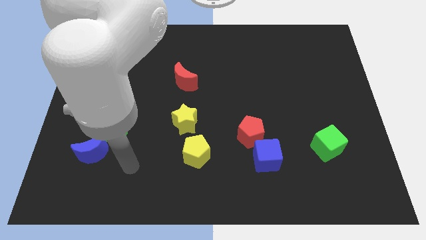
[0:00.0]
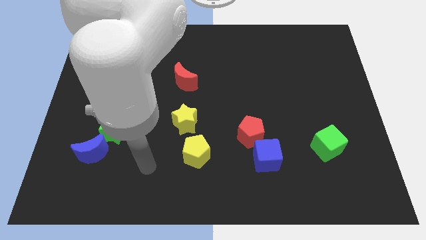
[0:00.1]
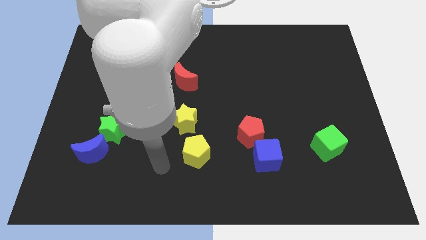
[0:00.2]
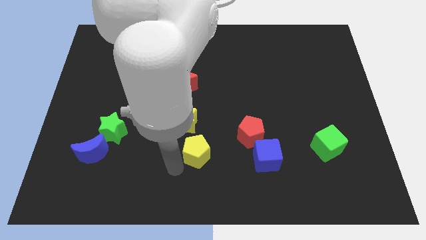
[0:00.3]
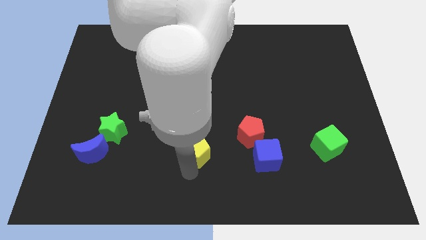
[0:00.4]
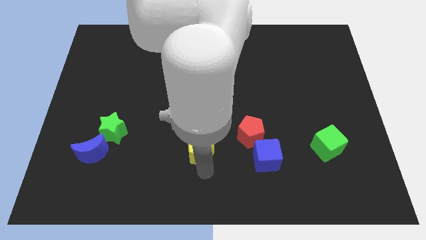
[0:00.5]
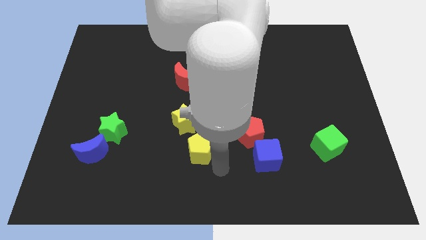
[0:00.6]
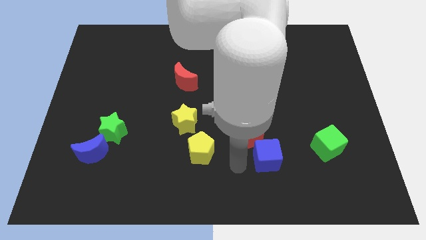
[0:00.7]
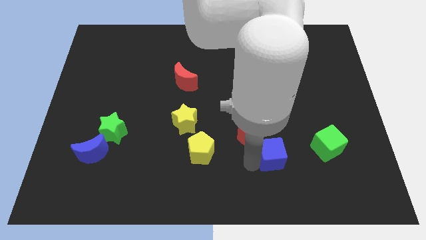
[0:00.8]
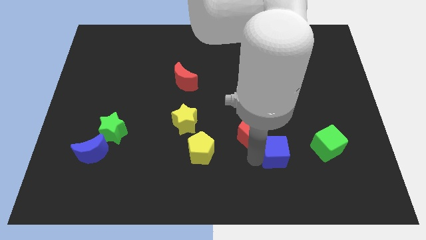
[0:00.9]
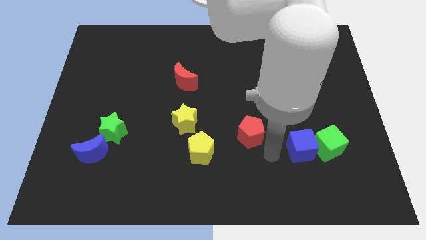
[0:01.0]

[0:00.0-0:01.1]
move the red pentagon away from the blue cube

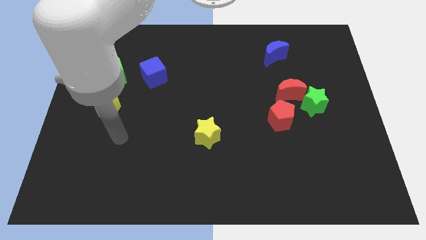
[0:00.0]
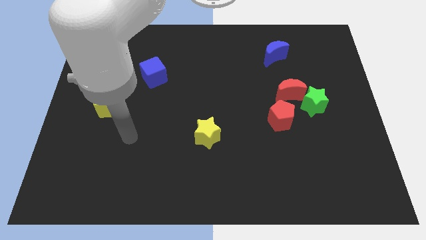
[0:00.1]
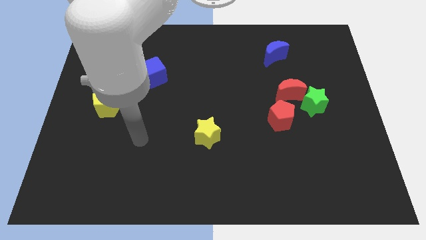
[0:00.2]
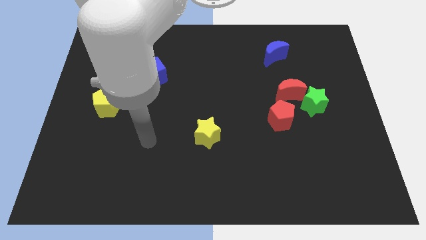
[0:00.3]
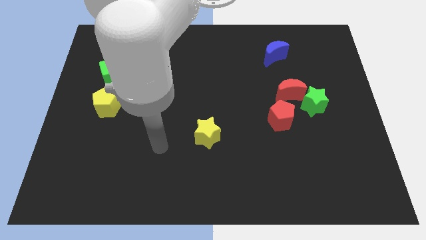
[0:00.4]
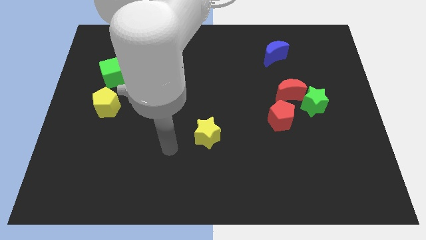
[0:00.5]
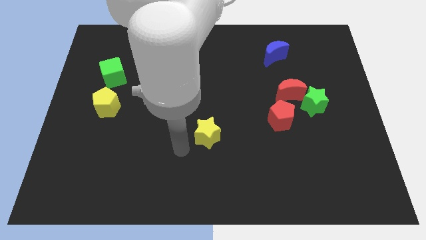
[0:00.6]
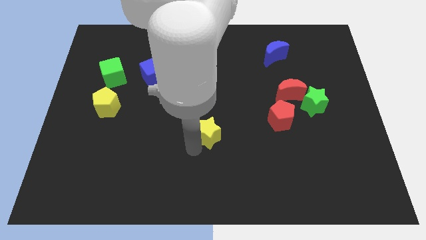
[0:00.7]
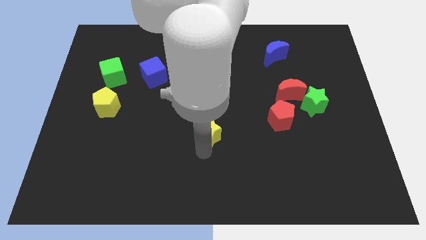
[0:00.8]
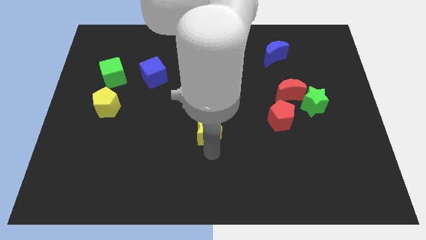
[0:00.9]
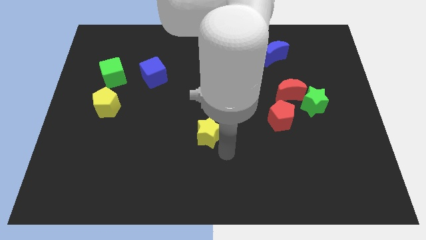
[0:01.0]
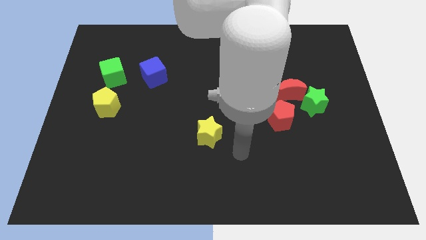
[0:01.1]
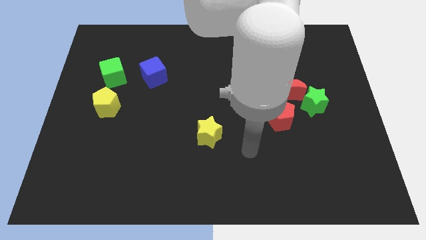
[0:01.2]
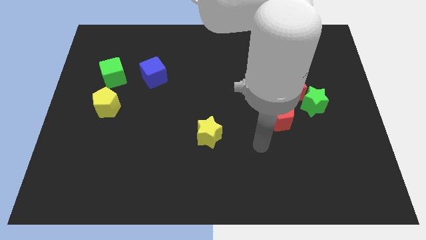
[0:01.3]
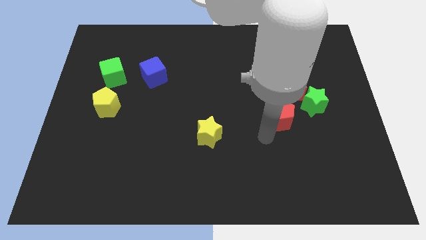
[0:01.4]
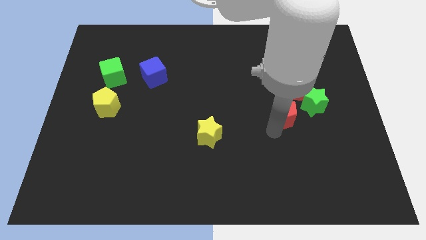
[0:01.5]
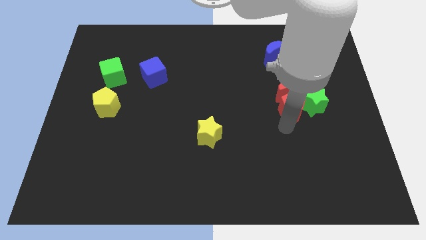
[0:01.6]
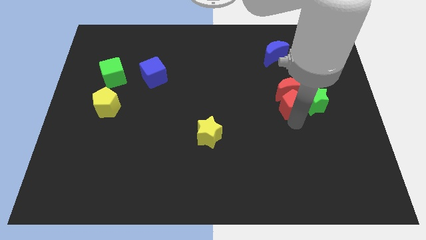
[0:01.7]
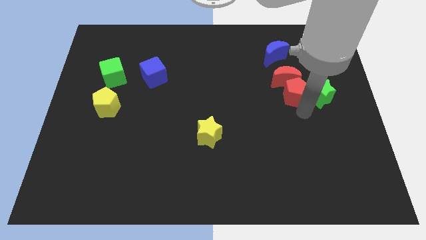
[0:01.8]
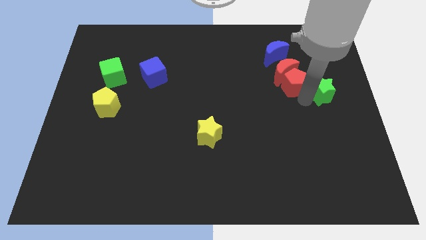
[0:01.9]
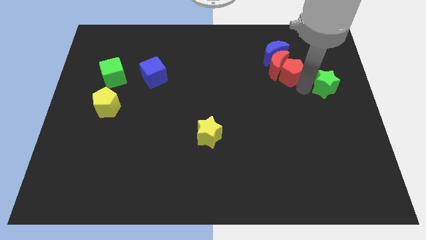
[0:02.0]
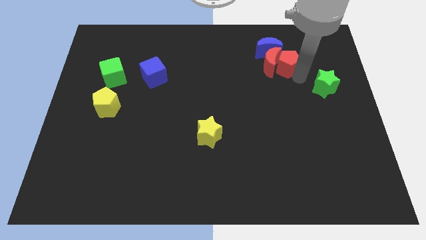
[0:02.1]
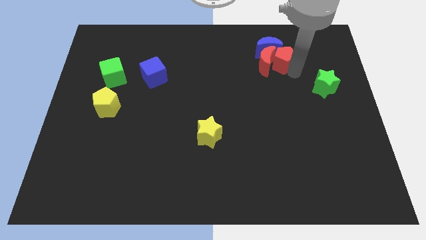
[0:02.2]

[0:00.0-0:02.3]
move the red moon away from the green star and red pentagon

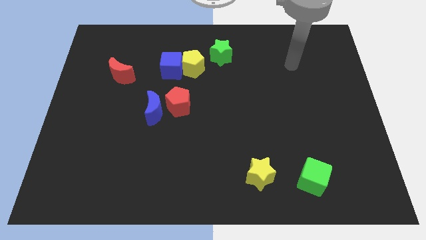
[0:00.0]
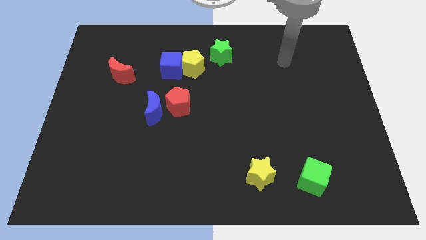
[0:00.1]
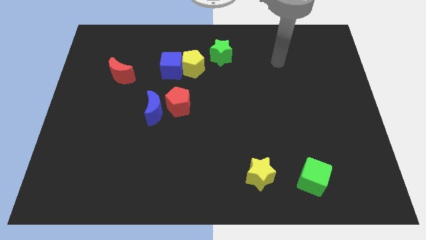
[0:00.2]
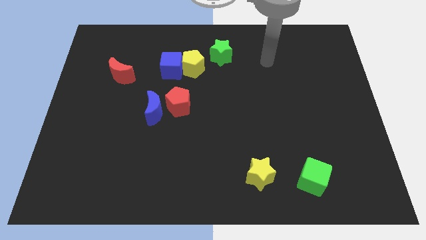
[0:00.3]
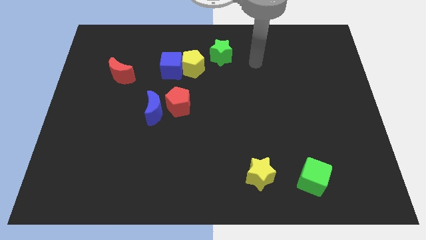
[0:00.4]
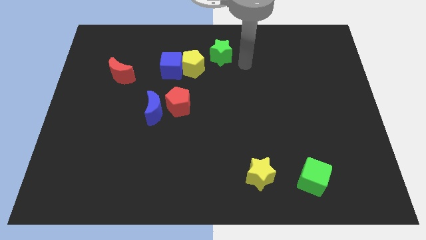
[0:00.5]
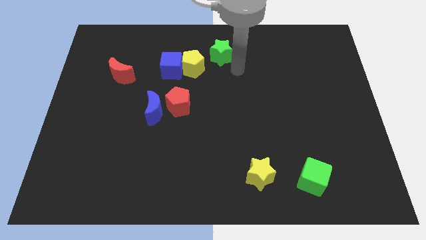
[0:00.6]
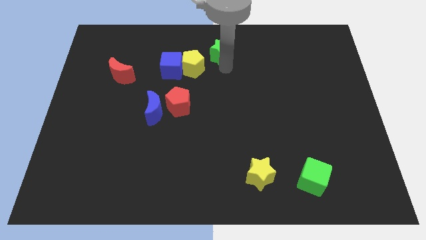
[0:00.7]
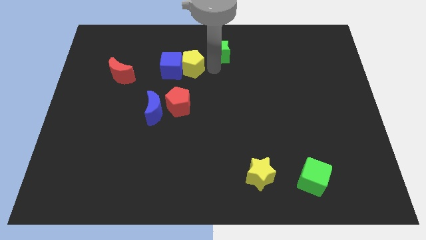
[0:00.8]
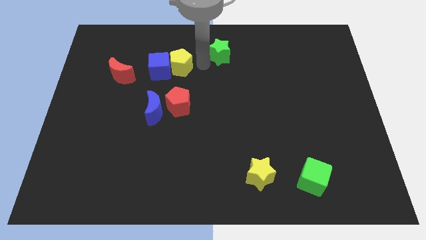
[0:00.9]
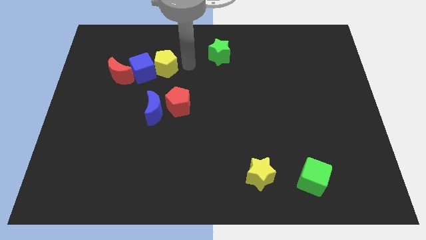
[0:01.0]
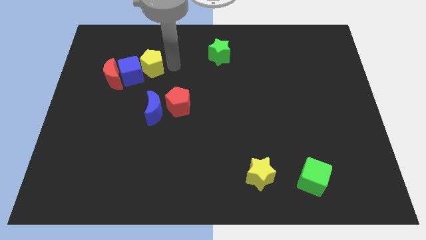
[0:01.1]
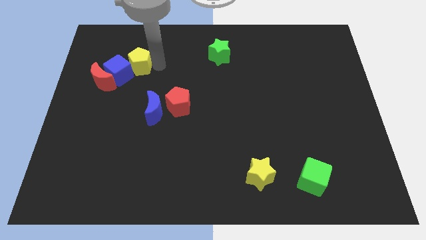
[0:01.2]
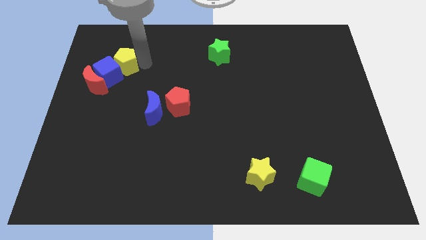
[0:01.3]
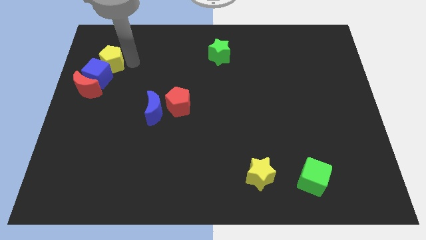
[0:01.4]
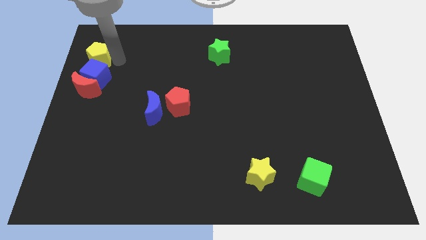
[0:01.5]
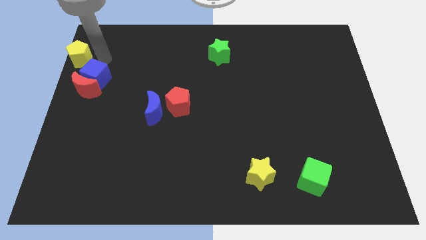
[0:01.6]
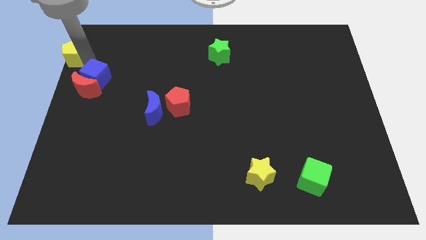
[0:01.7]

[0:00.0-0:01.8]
move the blue cube away from the yellow pentagon

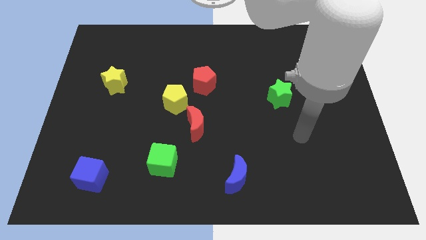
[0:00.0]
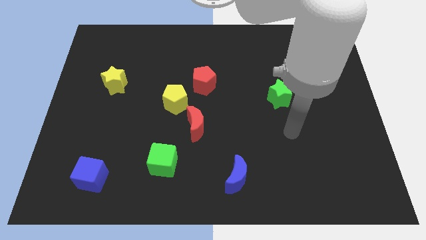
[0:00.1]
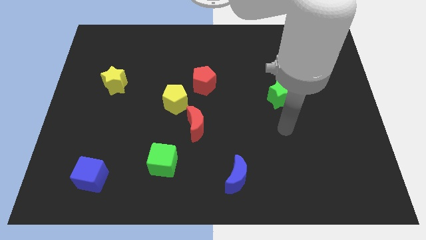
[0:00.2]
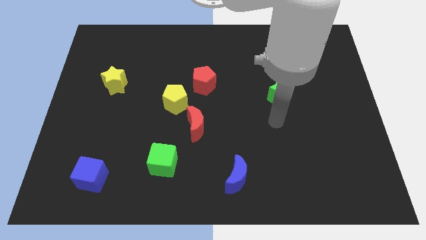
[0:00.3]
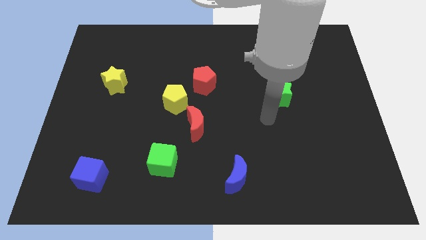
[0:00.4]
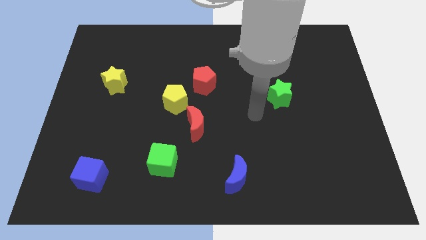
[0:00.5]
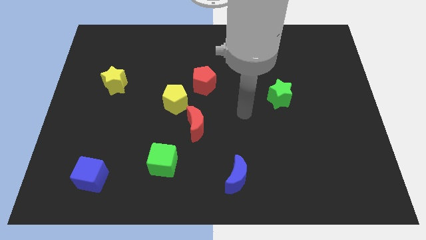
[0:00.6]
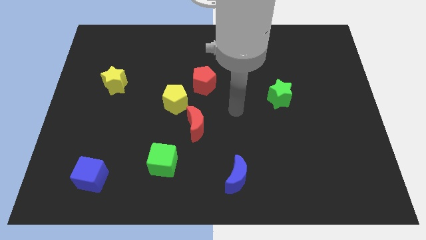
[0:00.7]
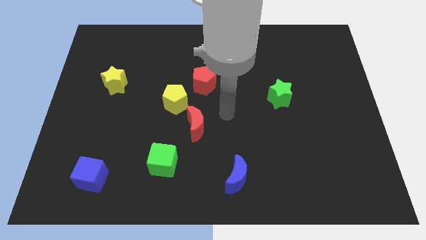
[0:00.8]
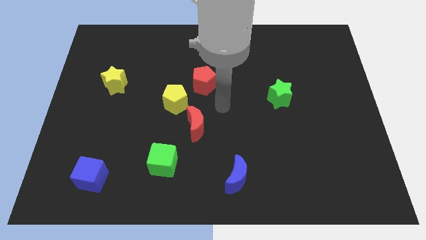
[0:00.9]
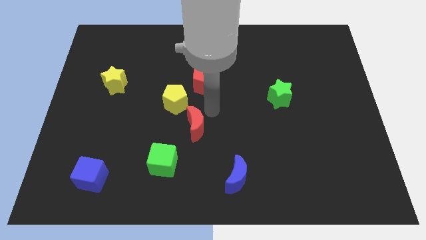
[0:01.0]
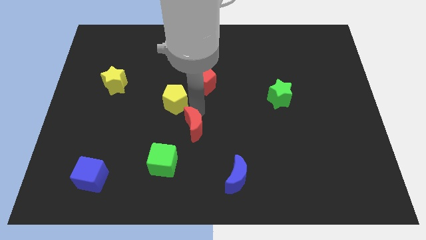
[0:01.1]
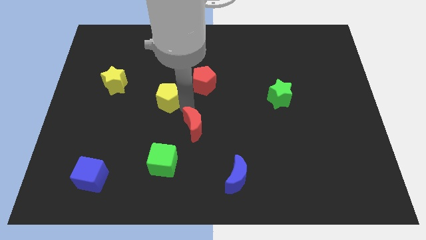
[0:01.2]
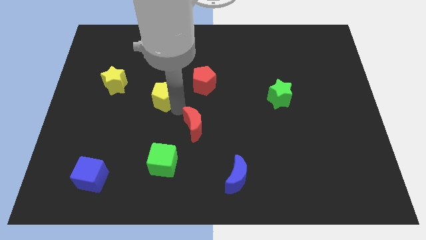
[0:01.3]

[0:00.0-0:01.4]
pull the red moon apart from the yellow pentagon

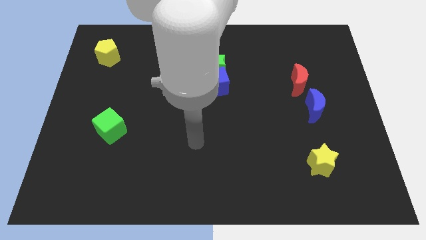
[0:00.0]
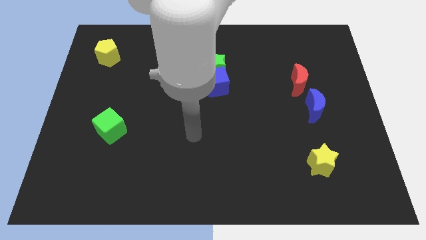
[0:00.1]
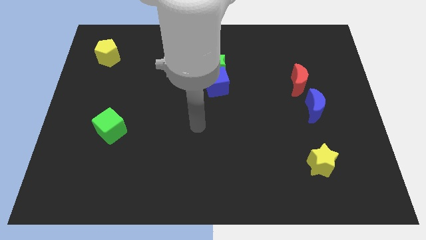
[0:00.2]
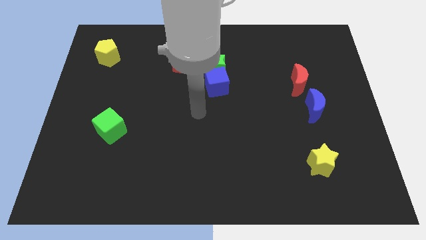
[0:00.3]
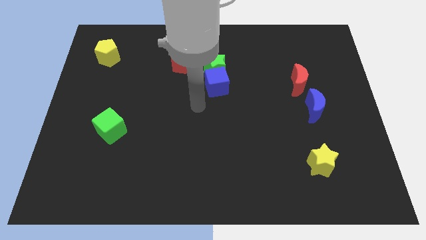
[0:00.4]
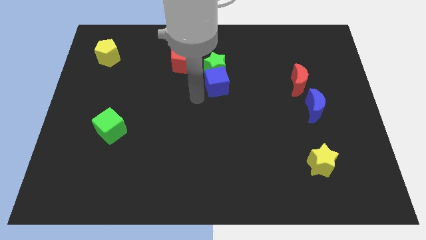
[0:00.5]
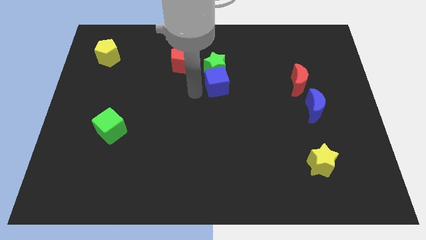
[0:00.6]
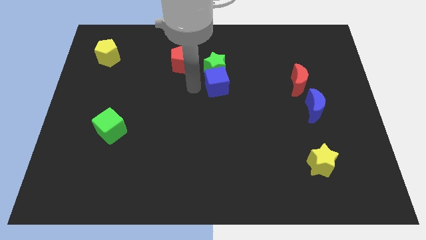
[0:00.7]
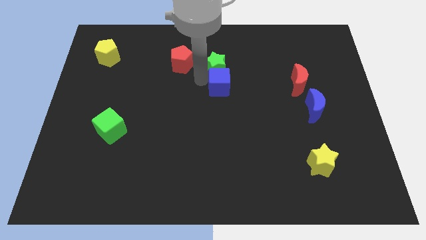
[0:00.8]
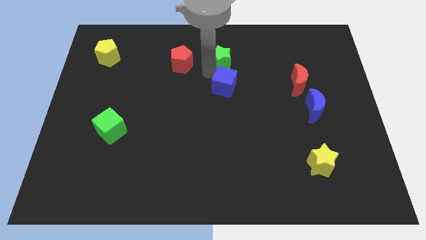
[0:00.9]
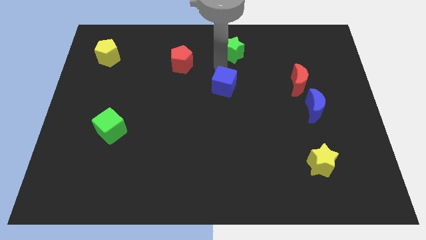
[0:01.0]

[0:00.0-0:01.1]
move the blue cube away from the green star

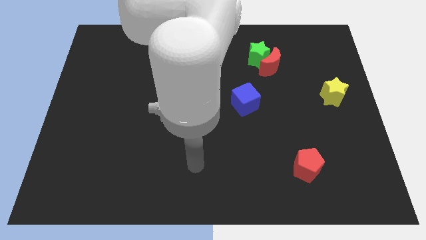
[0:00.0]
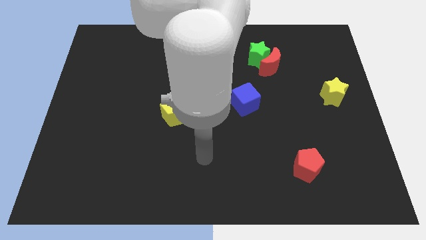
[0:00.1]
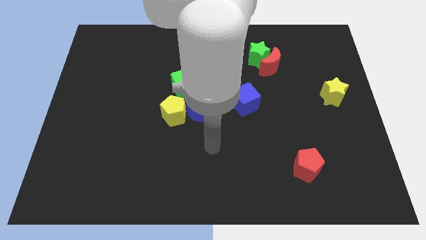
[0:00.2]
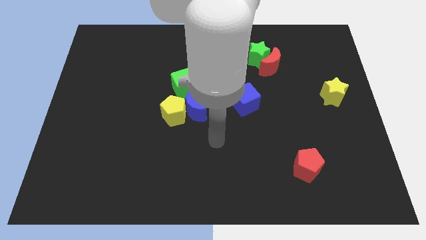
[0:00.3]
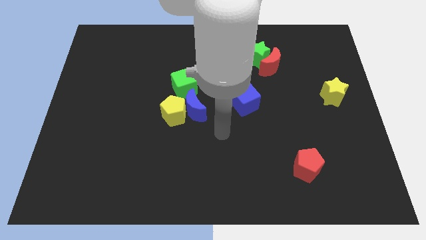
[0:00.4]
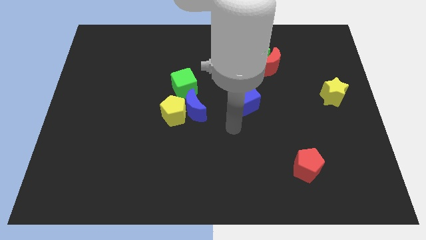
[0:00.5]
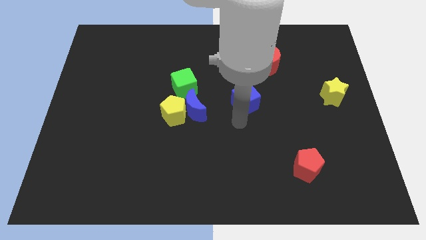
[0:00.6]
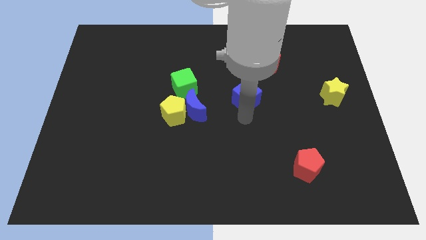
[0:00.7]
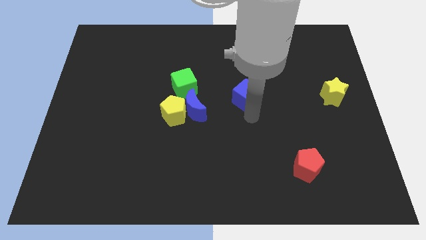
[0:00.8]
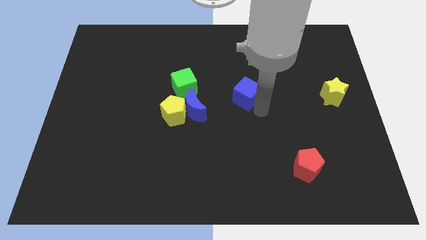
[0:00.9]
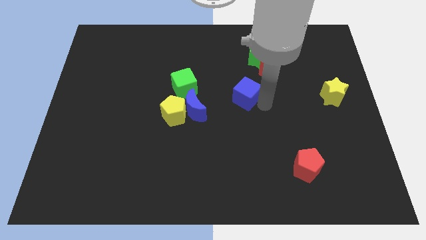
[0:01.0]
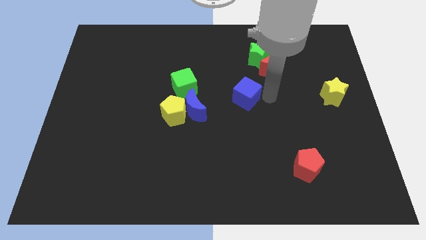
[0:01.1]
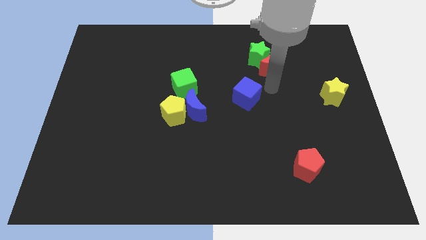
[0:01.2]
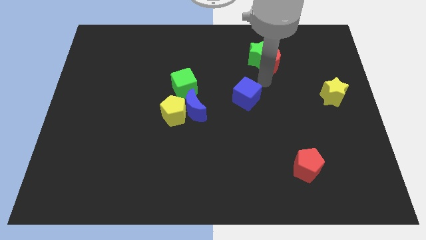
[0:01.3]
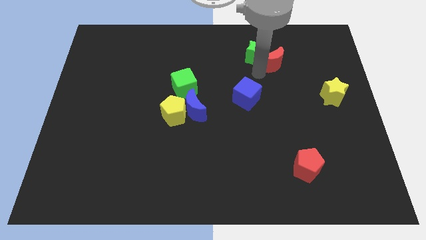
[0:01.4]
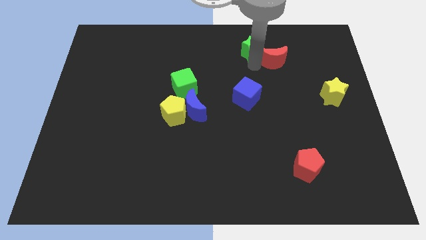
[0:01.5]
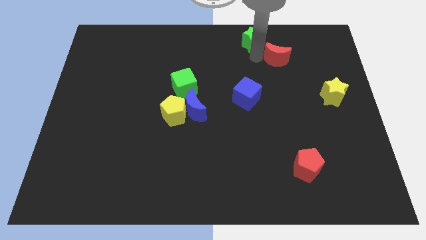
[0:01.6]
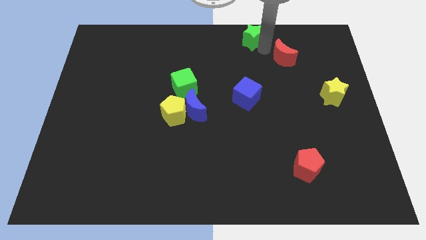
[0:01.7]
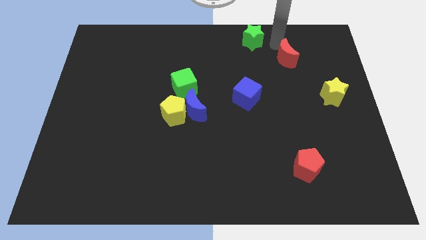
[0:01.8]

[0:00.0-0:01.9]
pull the red moon apart from the green star
